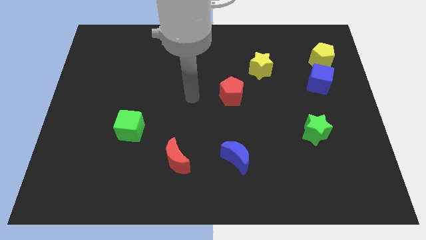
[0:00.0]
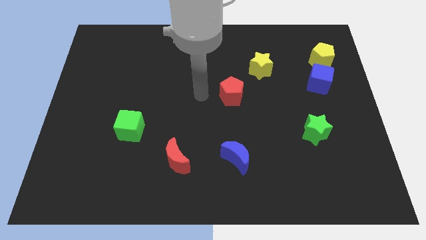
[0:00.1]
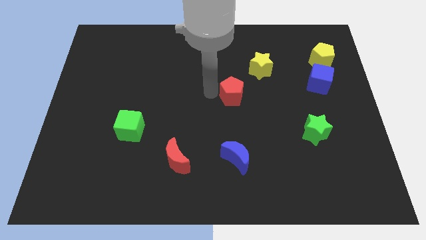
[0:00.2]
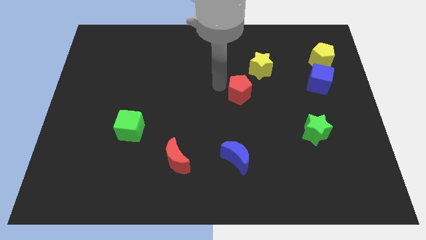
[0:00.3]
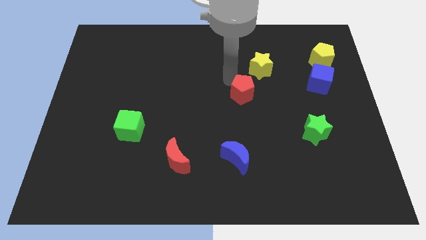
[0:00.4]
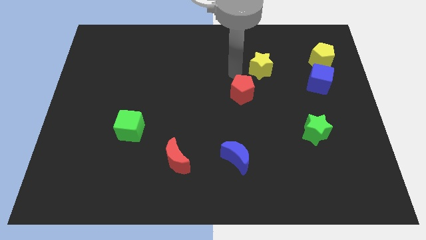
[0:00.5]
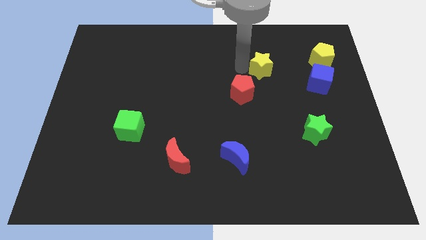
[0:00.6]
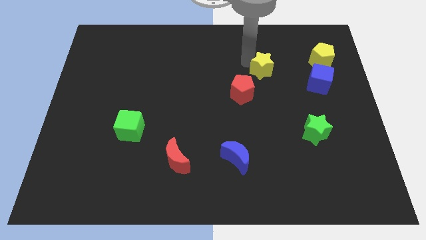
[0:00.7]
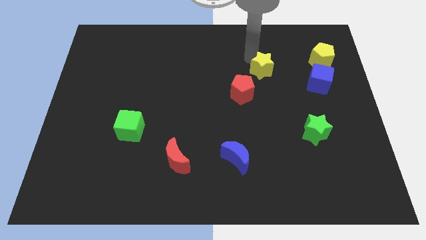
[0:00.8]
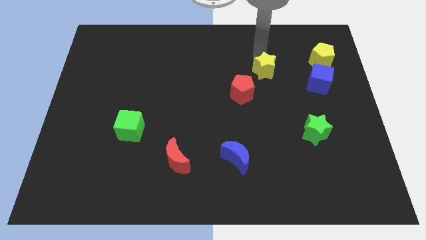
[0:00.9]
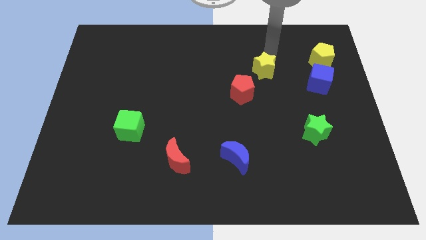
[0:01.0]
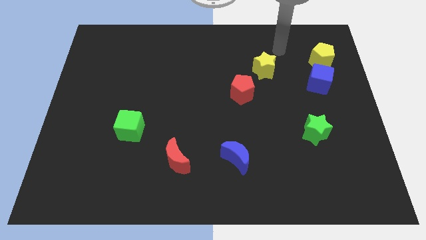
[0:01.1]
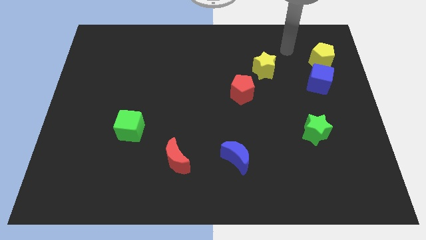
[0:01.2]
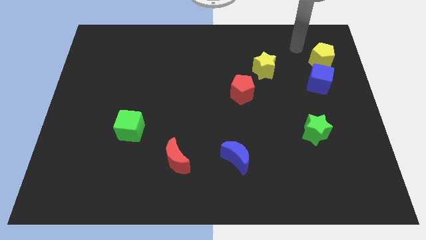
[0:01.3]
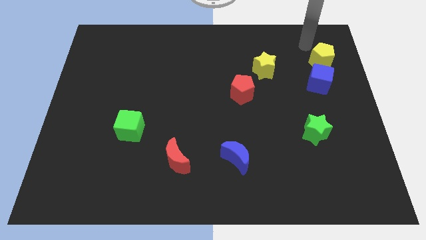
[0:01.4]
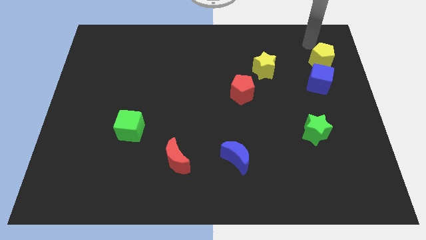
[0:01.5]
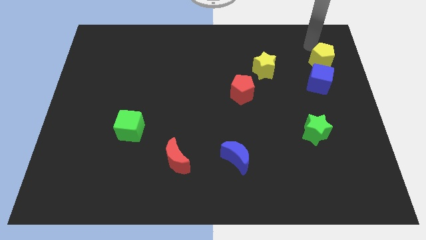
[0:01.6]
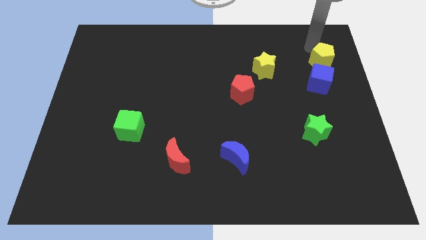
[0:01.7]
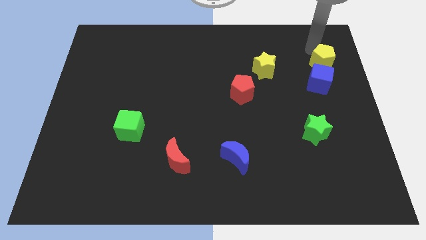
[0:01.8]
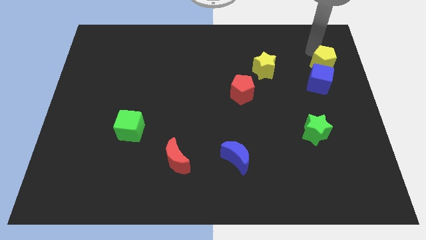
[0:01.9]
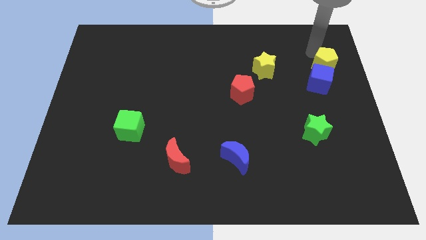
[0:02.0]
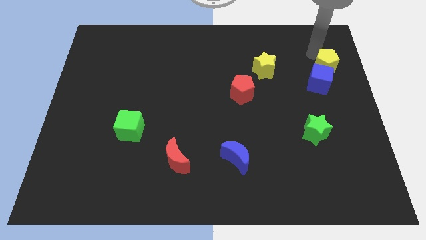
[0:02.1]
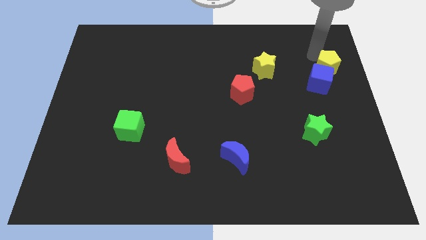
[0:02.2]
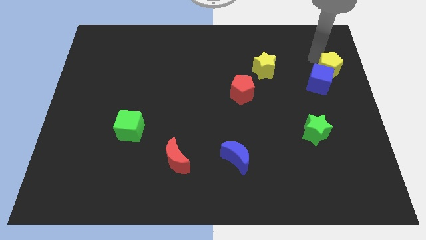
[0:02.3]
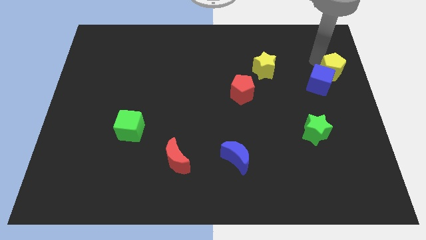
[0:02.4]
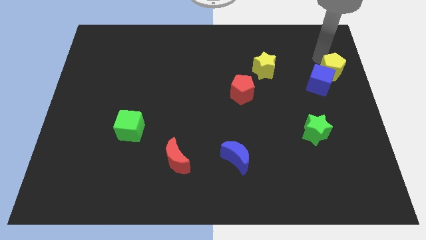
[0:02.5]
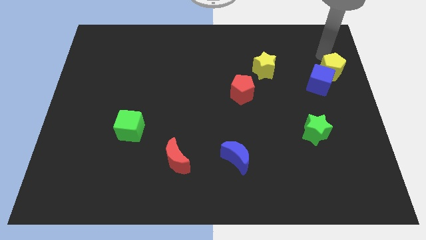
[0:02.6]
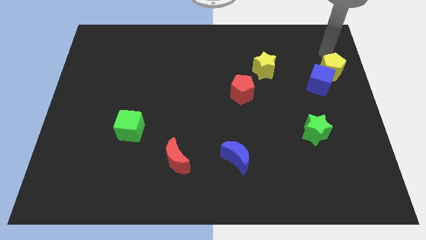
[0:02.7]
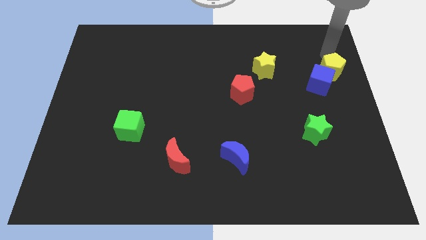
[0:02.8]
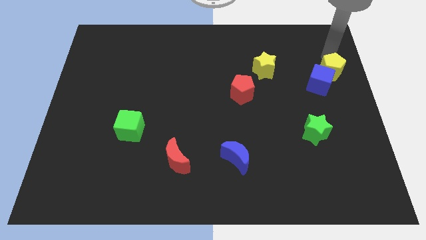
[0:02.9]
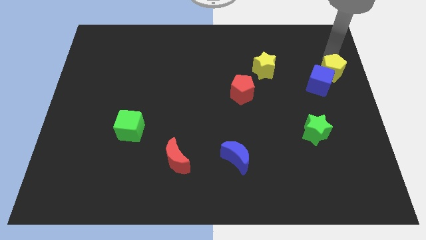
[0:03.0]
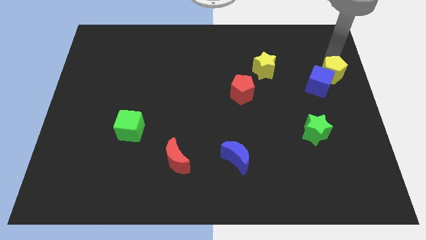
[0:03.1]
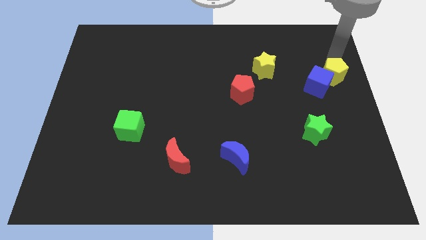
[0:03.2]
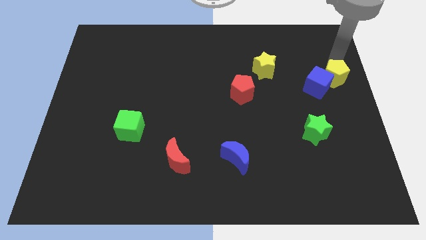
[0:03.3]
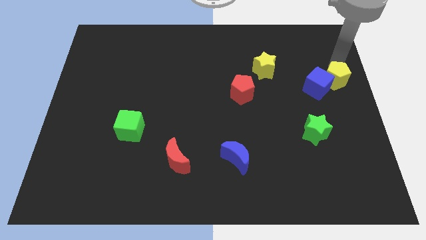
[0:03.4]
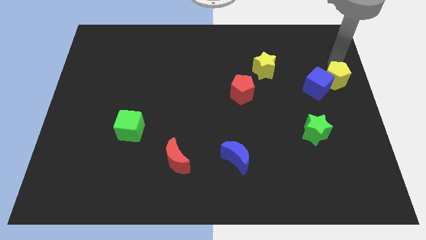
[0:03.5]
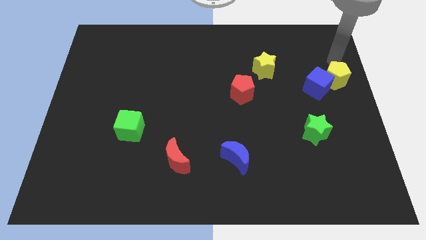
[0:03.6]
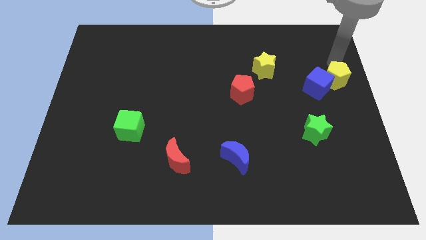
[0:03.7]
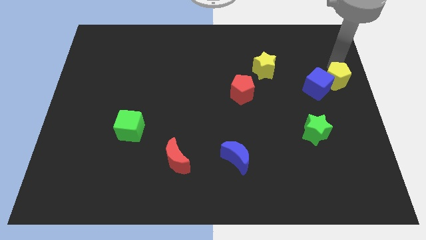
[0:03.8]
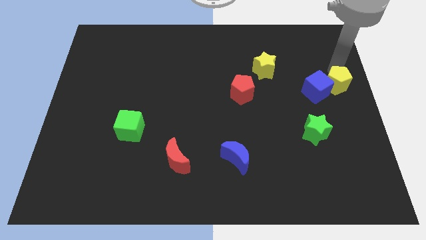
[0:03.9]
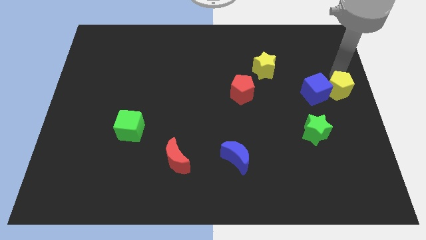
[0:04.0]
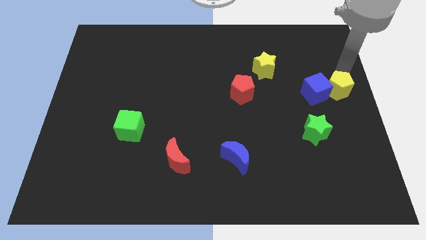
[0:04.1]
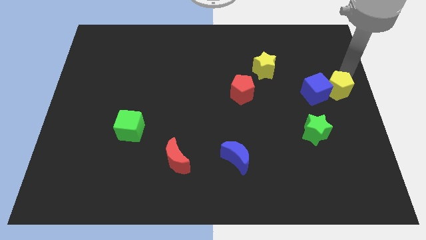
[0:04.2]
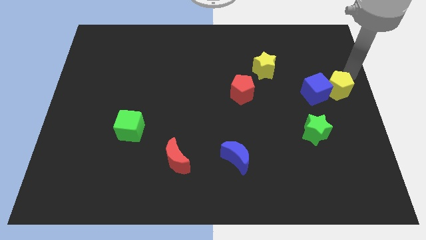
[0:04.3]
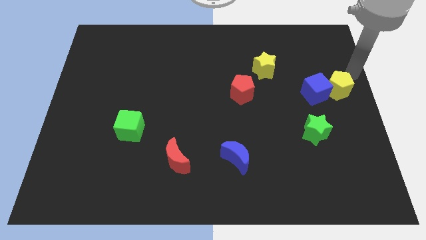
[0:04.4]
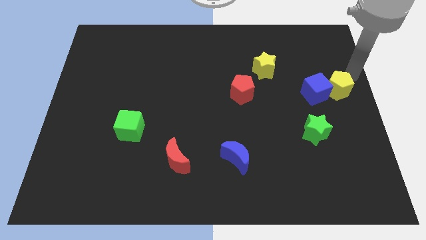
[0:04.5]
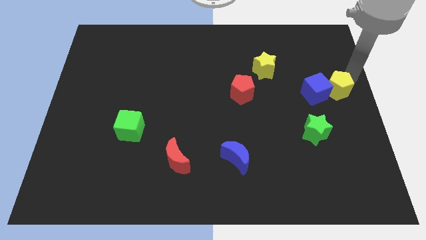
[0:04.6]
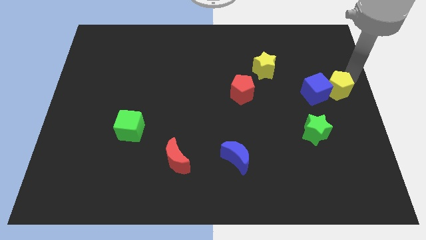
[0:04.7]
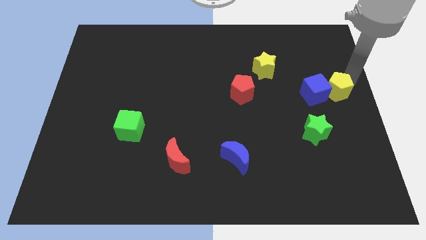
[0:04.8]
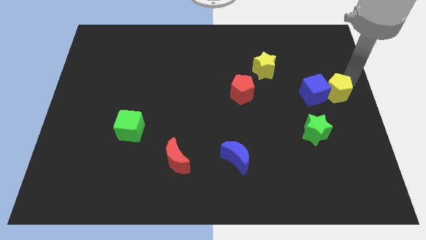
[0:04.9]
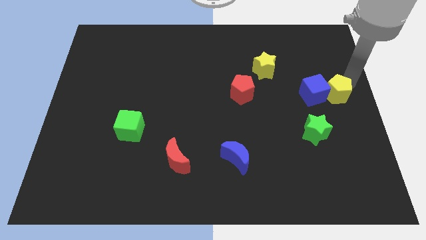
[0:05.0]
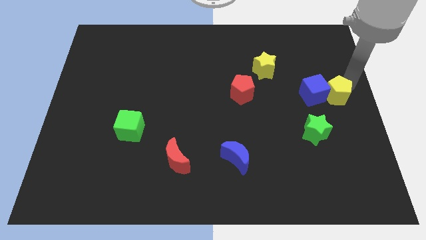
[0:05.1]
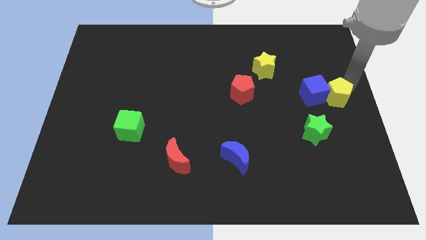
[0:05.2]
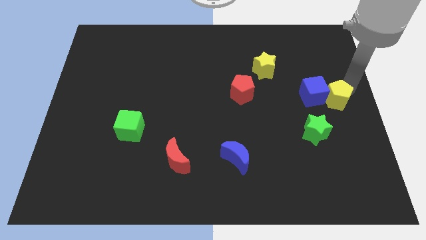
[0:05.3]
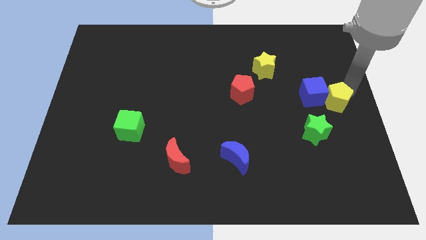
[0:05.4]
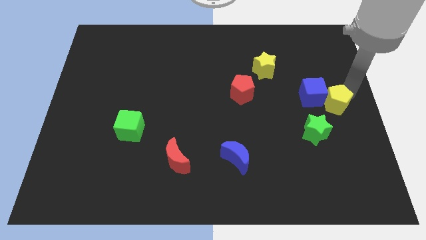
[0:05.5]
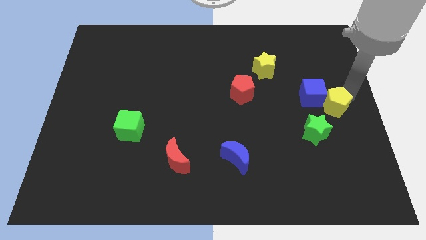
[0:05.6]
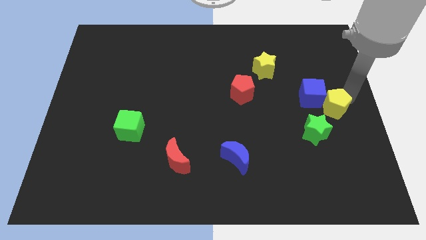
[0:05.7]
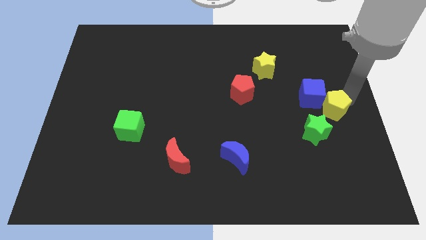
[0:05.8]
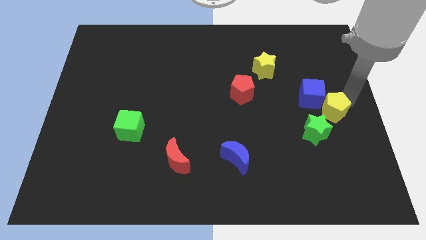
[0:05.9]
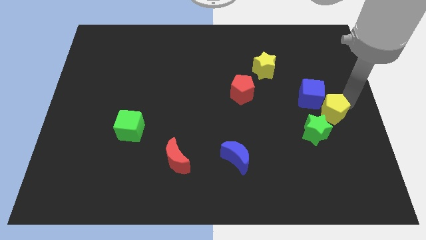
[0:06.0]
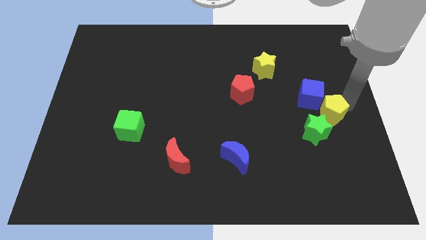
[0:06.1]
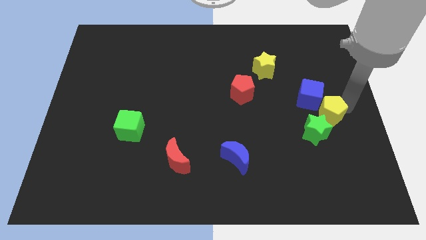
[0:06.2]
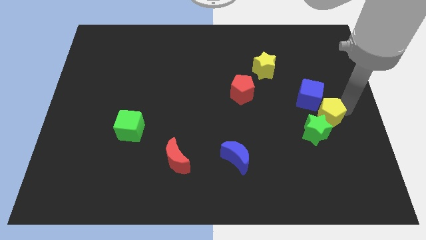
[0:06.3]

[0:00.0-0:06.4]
move the yellow pentagon next to the green star
